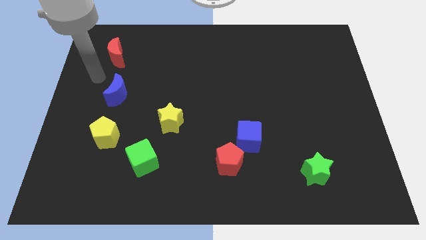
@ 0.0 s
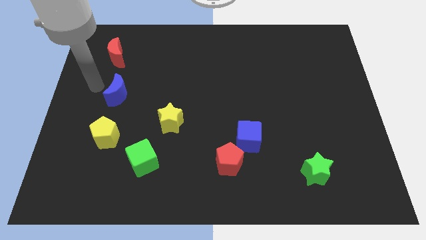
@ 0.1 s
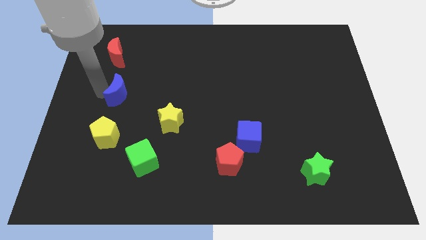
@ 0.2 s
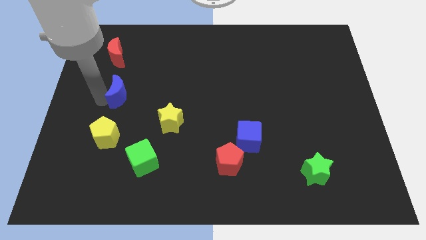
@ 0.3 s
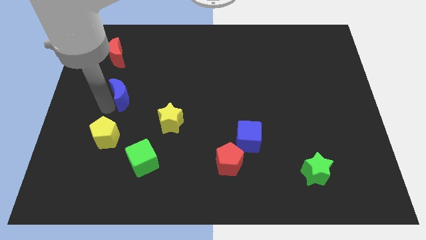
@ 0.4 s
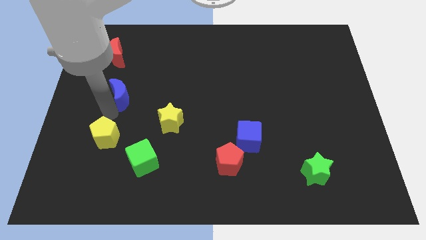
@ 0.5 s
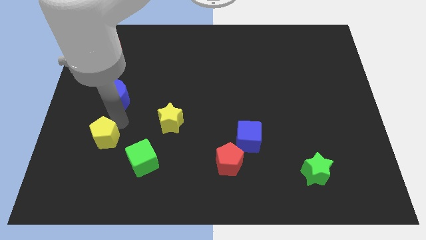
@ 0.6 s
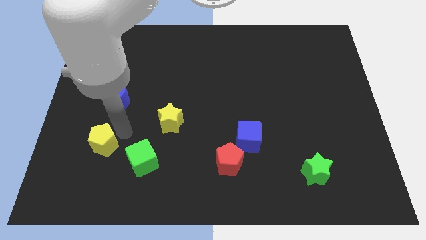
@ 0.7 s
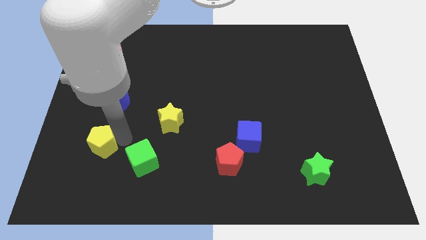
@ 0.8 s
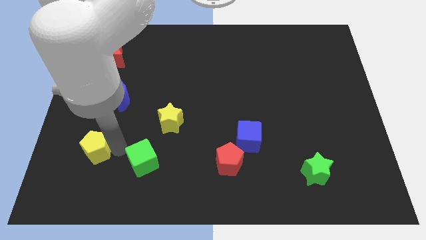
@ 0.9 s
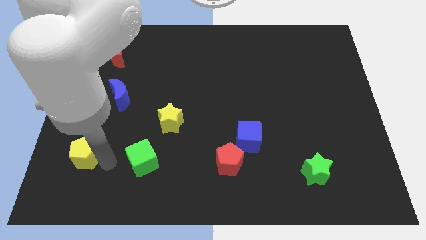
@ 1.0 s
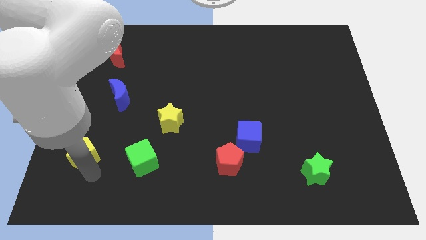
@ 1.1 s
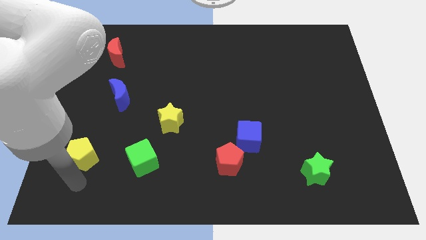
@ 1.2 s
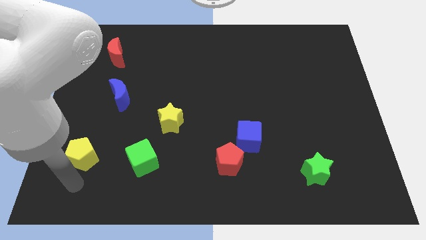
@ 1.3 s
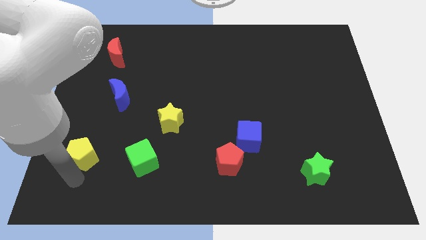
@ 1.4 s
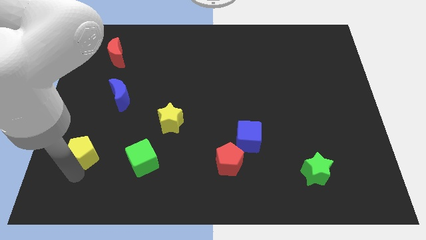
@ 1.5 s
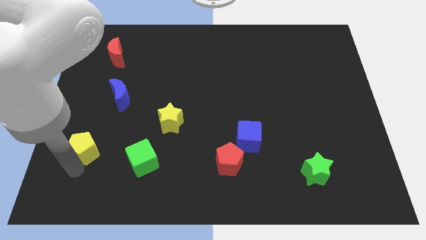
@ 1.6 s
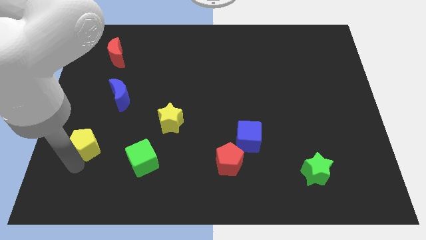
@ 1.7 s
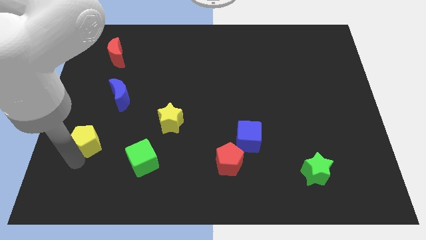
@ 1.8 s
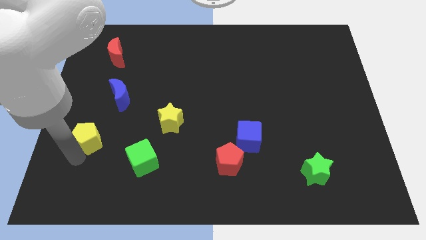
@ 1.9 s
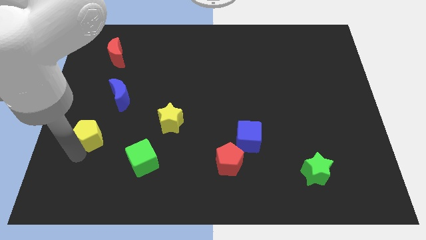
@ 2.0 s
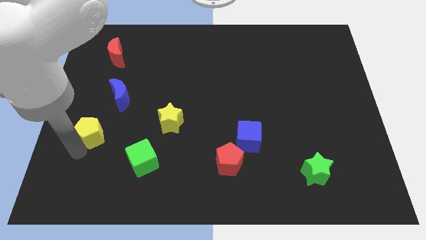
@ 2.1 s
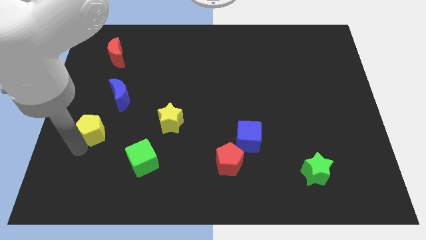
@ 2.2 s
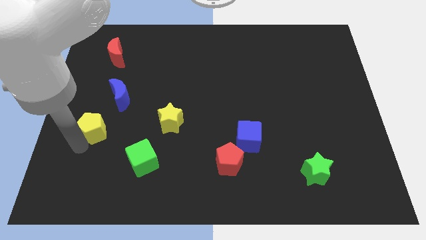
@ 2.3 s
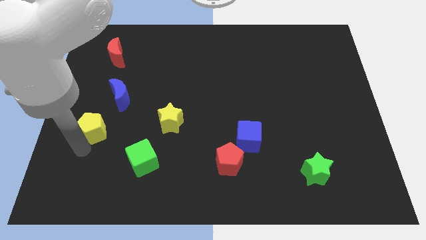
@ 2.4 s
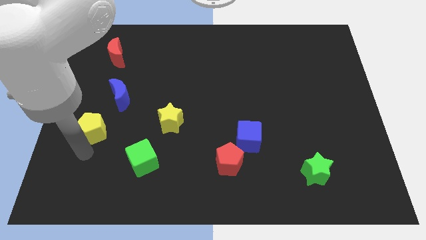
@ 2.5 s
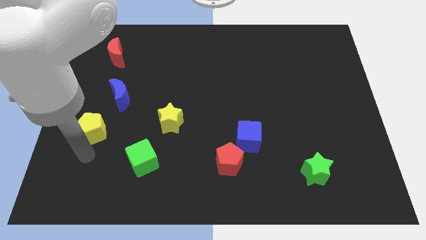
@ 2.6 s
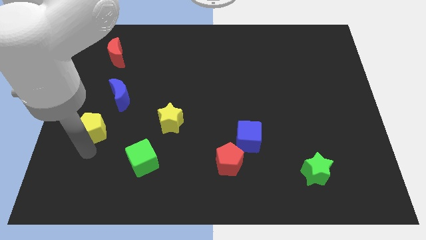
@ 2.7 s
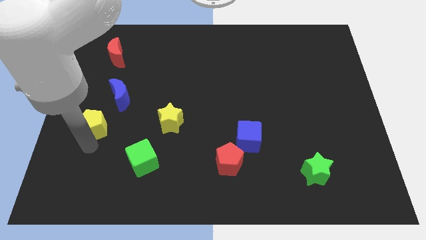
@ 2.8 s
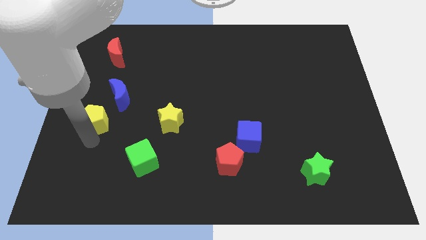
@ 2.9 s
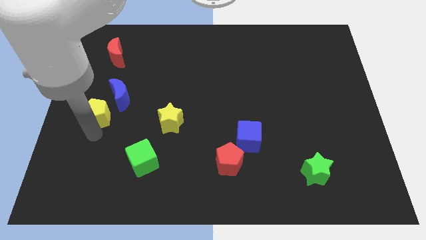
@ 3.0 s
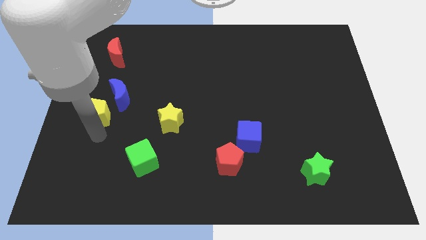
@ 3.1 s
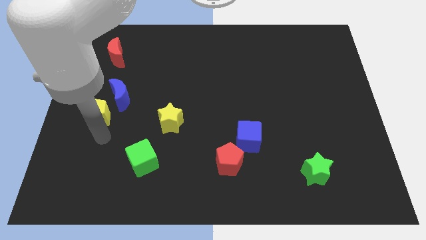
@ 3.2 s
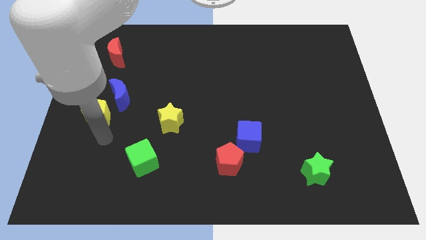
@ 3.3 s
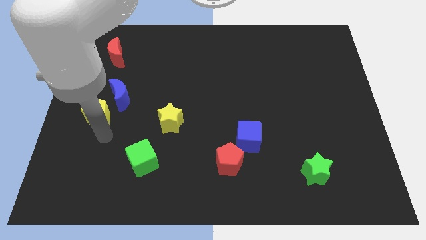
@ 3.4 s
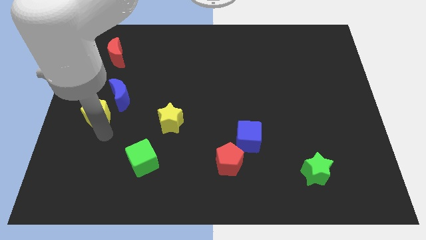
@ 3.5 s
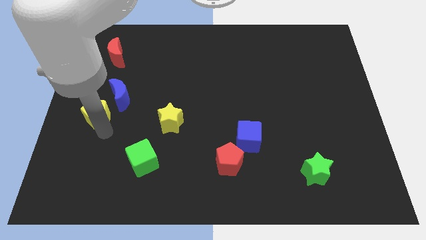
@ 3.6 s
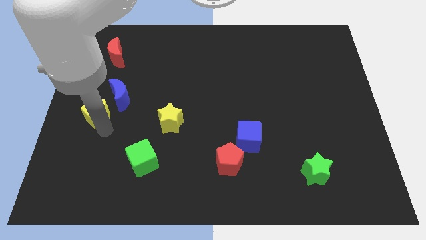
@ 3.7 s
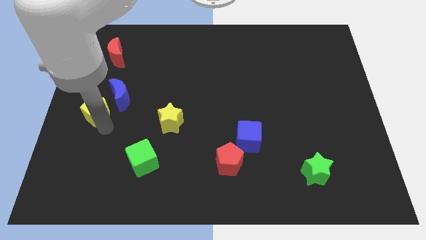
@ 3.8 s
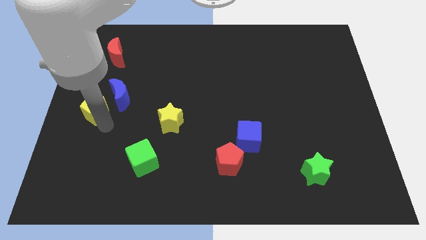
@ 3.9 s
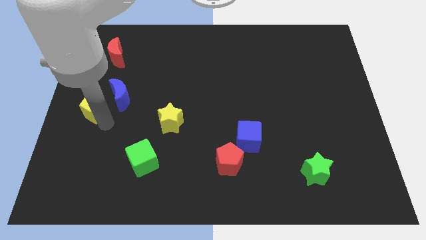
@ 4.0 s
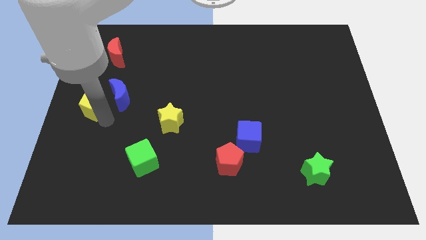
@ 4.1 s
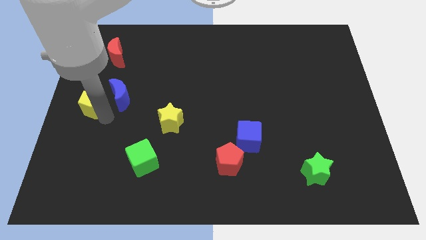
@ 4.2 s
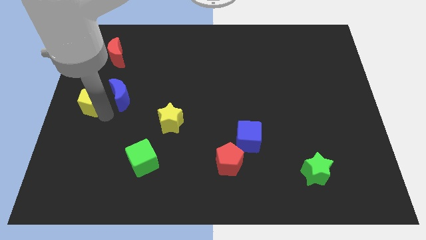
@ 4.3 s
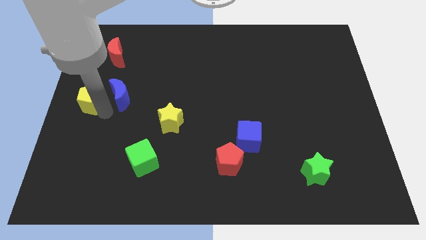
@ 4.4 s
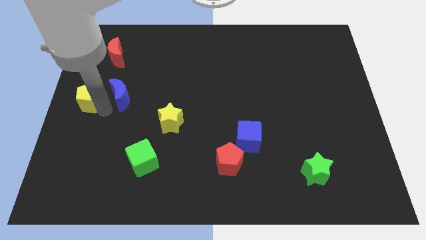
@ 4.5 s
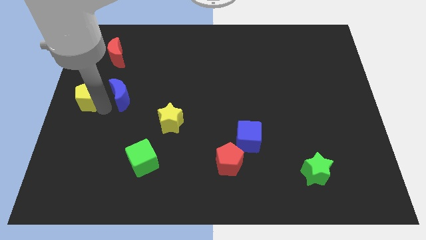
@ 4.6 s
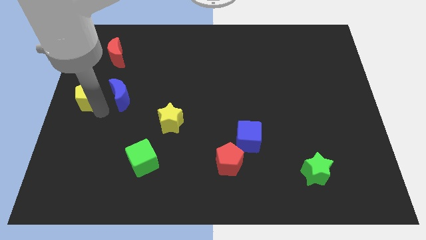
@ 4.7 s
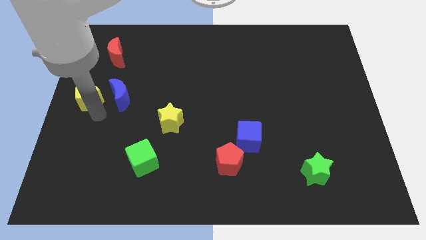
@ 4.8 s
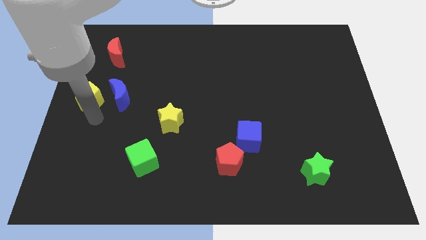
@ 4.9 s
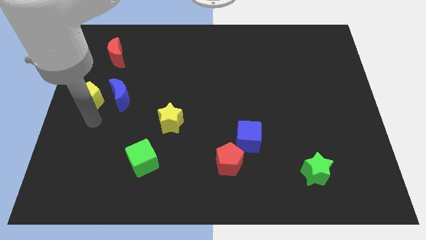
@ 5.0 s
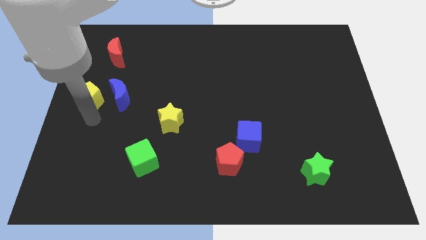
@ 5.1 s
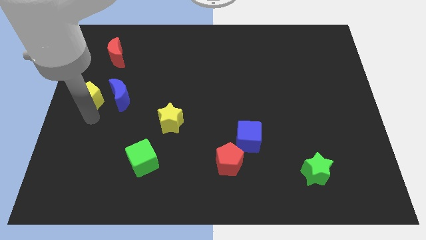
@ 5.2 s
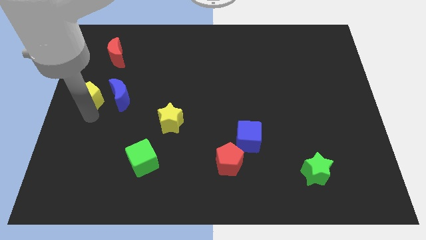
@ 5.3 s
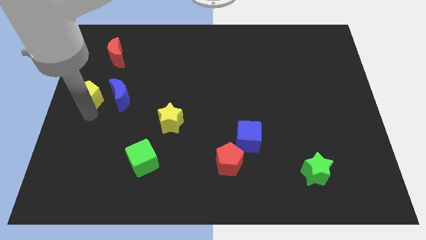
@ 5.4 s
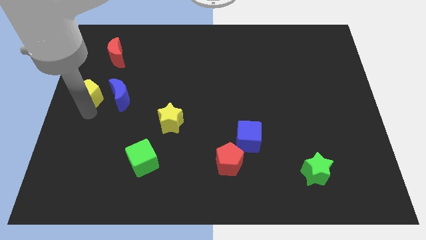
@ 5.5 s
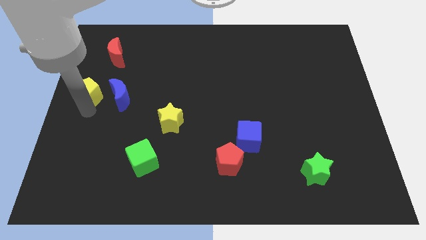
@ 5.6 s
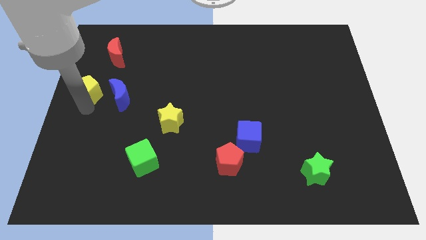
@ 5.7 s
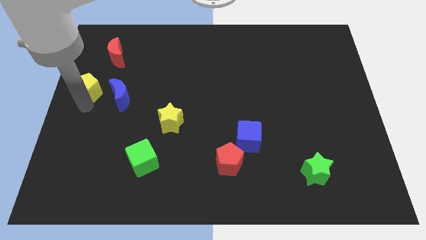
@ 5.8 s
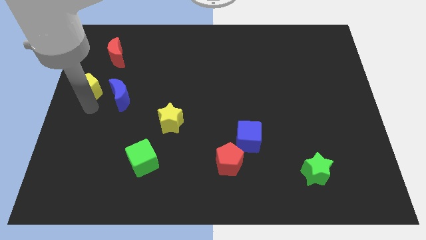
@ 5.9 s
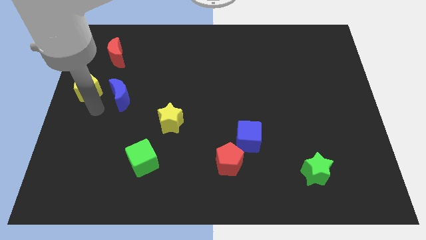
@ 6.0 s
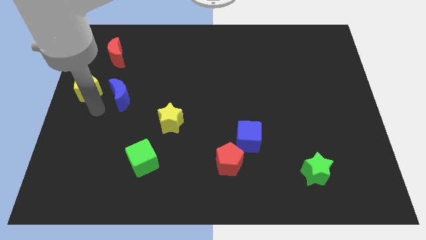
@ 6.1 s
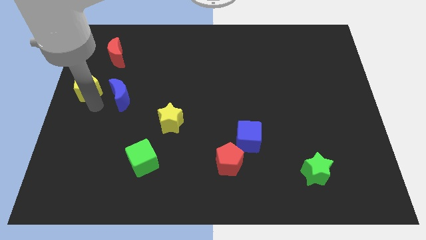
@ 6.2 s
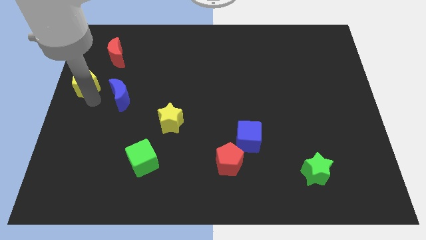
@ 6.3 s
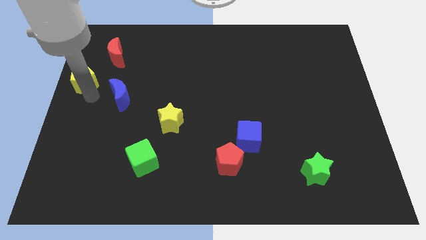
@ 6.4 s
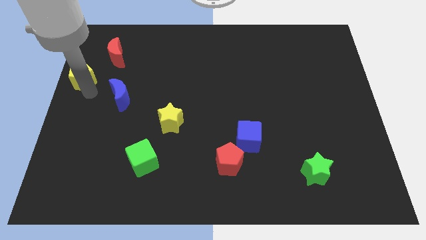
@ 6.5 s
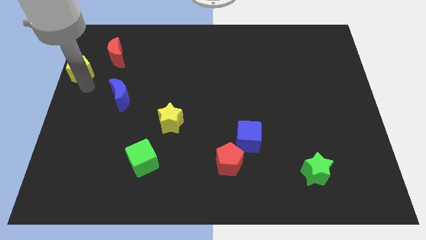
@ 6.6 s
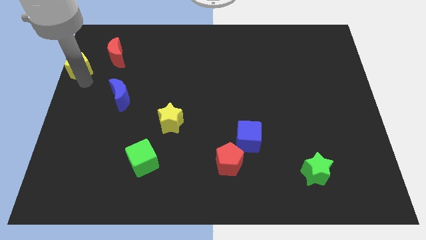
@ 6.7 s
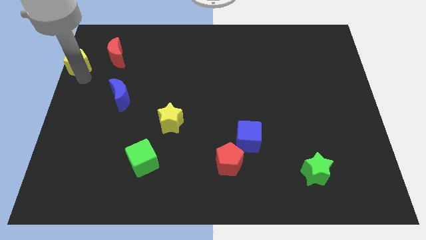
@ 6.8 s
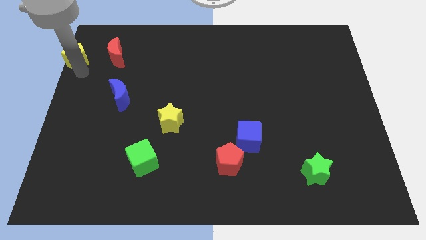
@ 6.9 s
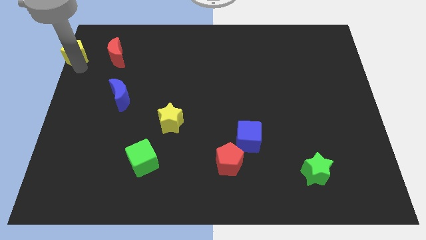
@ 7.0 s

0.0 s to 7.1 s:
put the yellow pentagon to the upper left corner

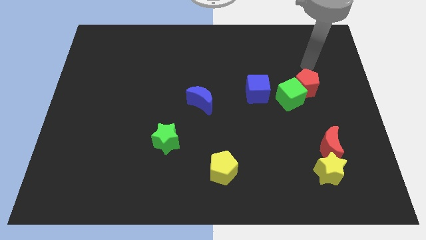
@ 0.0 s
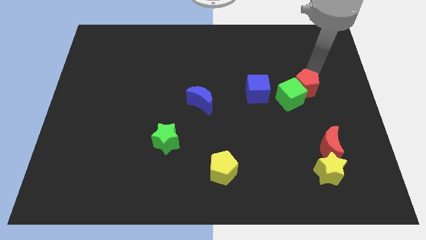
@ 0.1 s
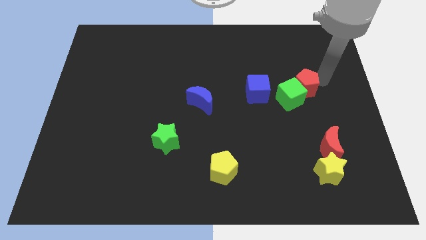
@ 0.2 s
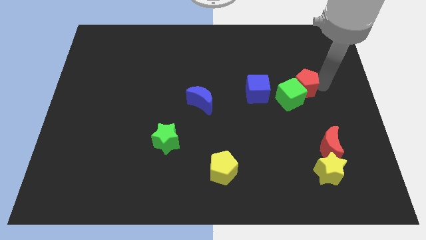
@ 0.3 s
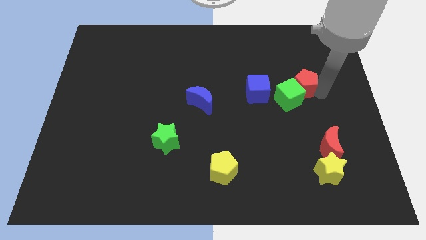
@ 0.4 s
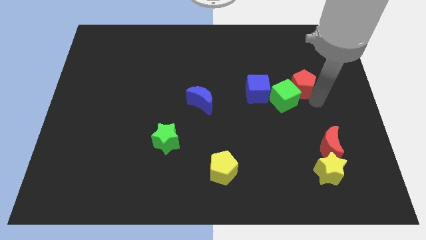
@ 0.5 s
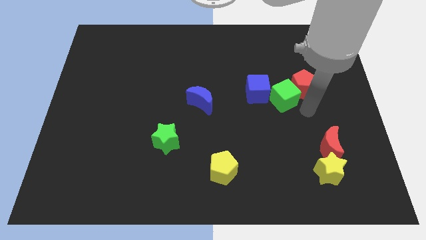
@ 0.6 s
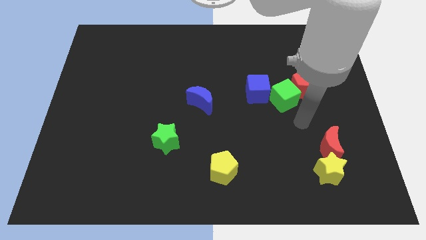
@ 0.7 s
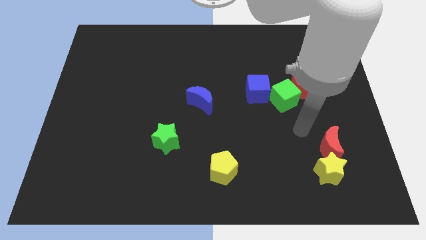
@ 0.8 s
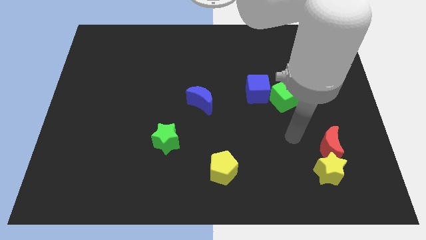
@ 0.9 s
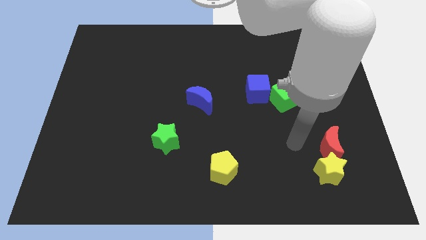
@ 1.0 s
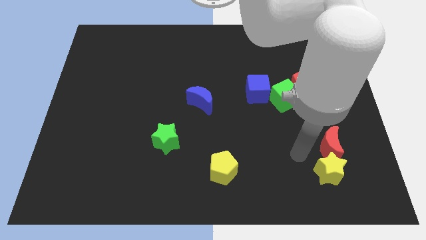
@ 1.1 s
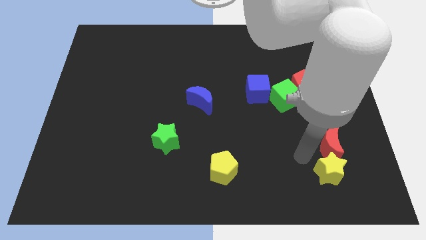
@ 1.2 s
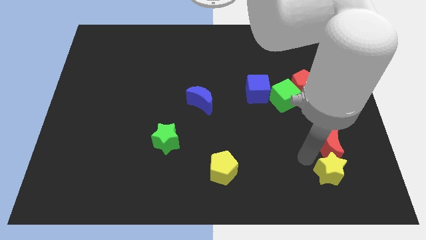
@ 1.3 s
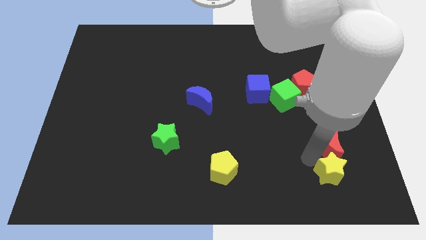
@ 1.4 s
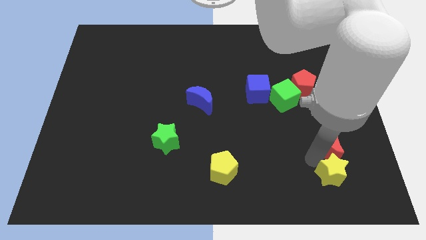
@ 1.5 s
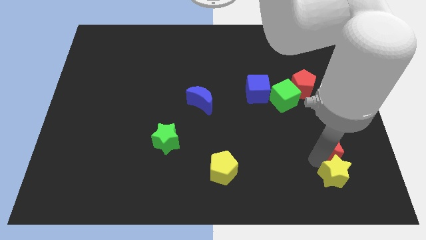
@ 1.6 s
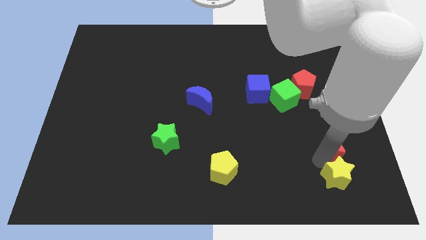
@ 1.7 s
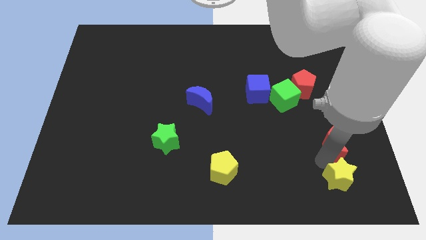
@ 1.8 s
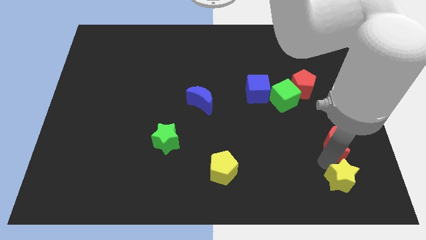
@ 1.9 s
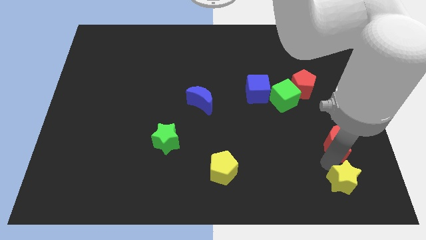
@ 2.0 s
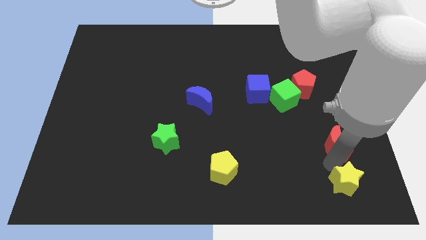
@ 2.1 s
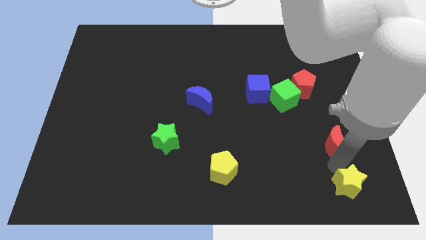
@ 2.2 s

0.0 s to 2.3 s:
push the yellow star to the bottom right
